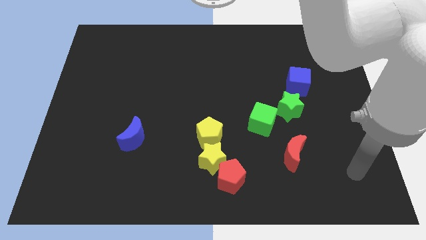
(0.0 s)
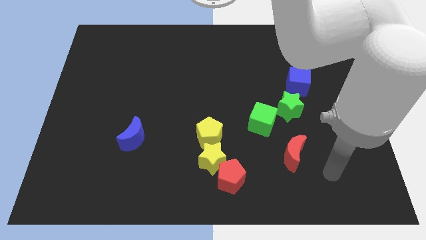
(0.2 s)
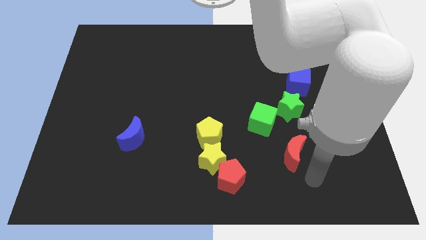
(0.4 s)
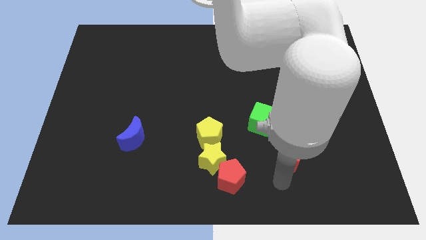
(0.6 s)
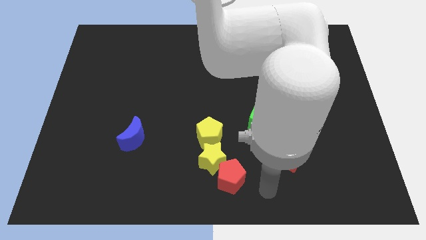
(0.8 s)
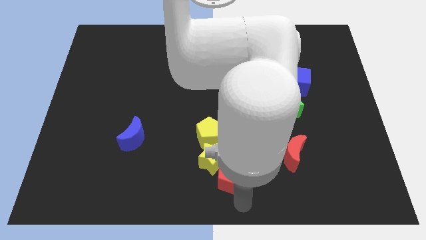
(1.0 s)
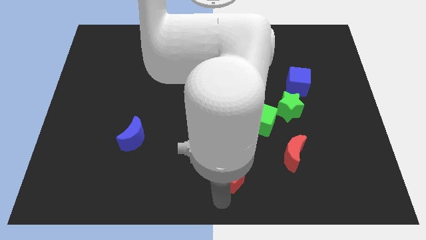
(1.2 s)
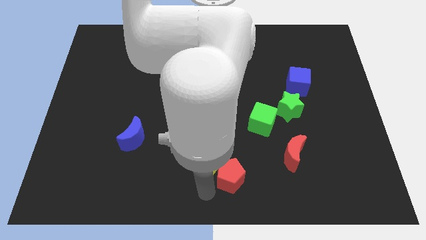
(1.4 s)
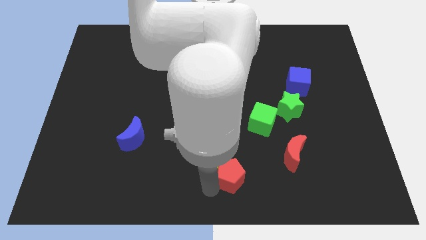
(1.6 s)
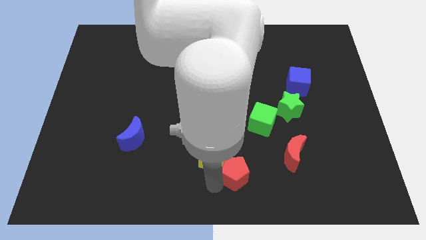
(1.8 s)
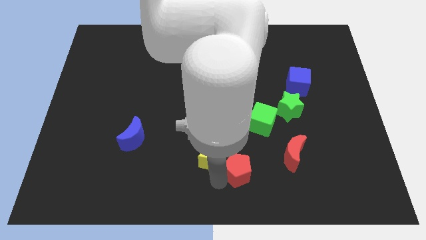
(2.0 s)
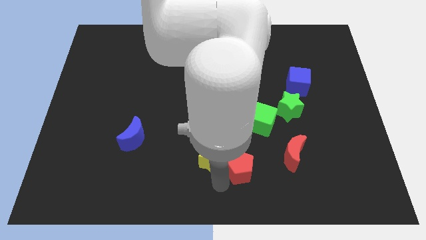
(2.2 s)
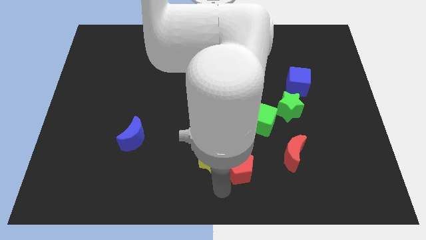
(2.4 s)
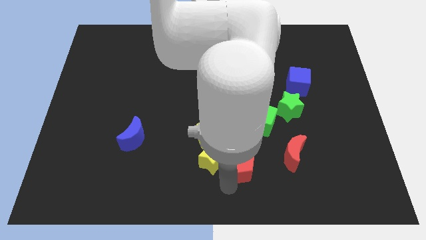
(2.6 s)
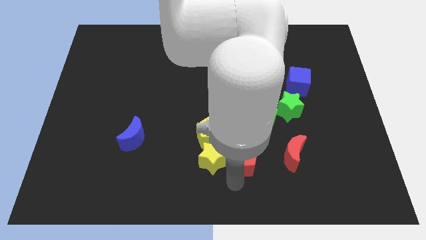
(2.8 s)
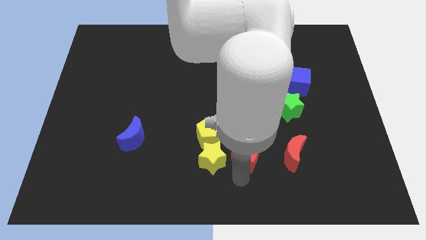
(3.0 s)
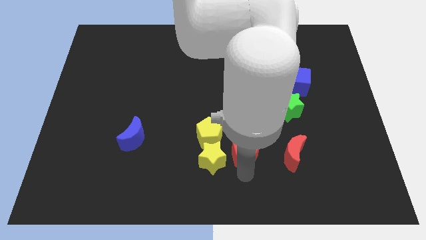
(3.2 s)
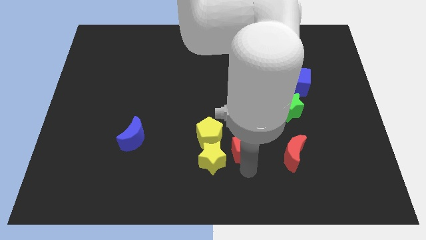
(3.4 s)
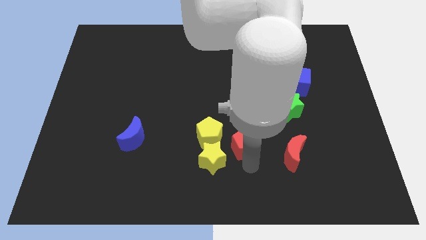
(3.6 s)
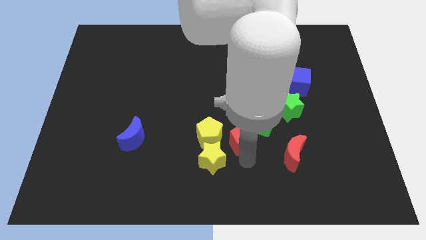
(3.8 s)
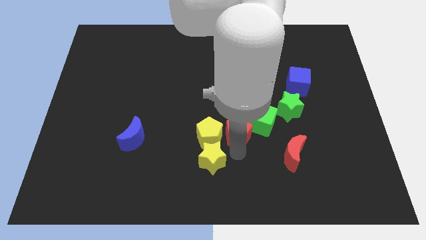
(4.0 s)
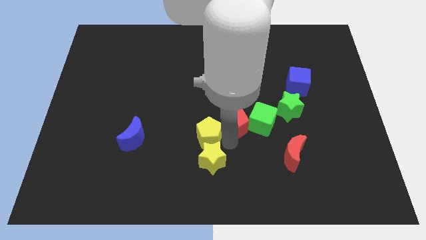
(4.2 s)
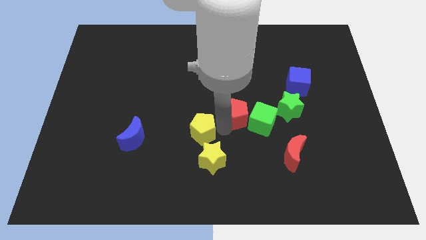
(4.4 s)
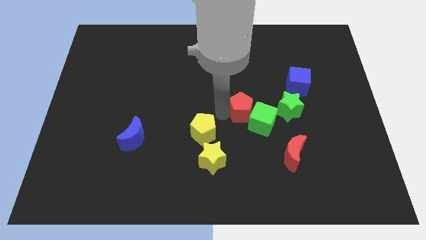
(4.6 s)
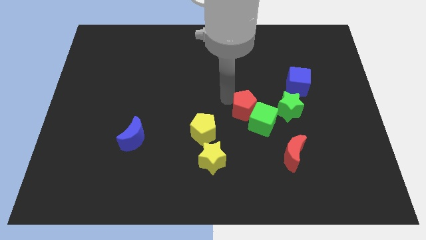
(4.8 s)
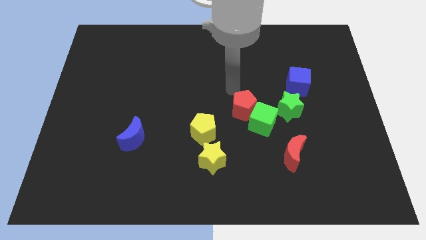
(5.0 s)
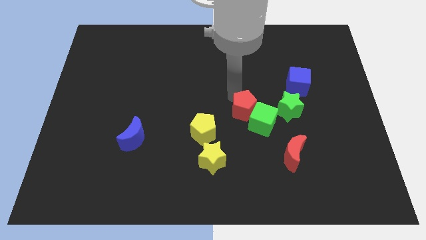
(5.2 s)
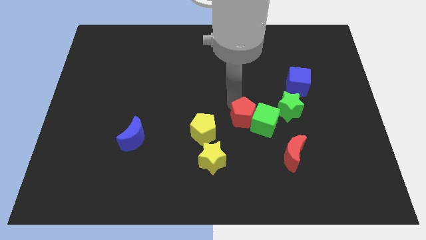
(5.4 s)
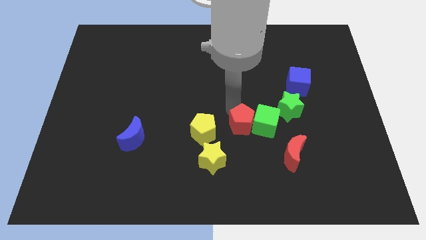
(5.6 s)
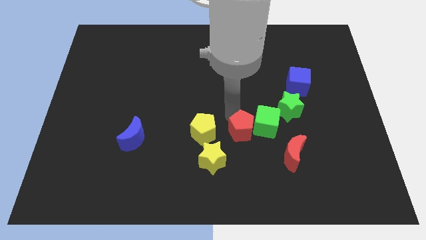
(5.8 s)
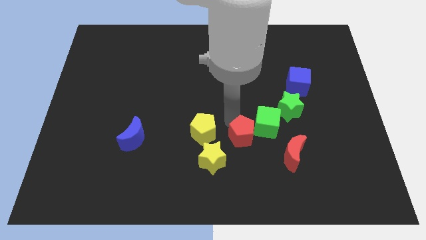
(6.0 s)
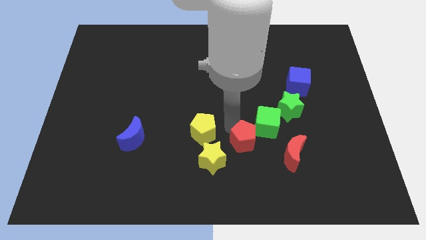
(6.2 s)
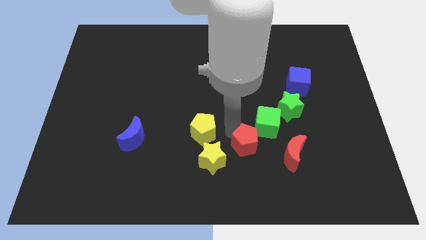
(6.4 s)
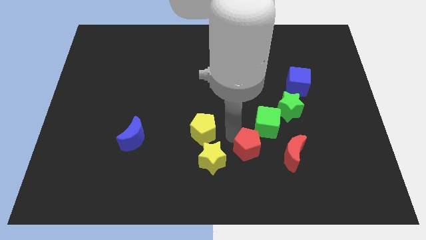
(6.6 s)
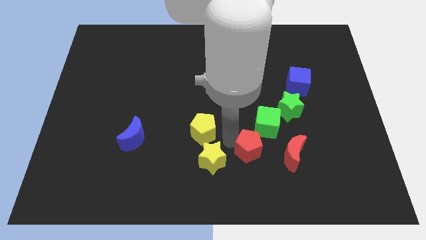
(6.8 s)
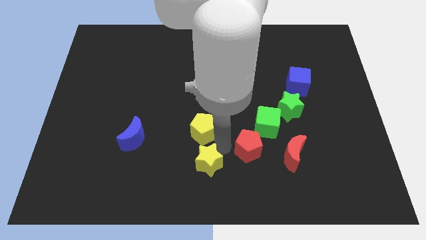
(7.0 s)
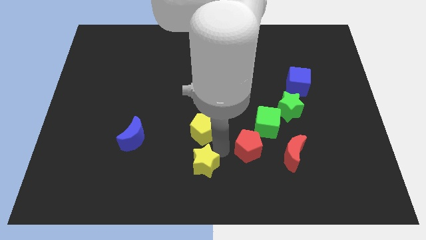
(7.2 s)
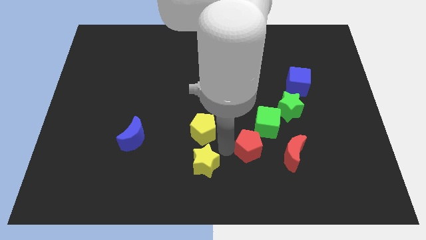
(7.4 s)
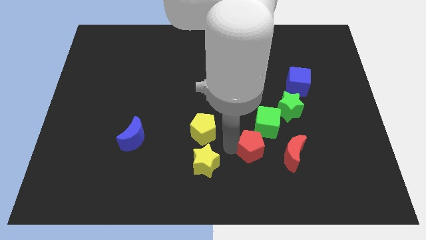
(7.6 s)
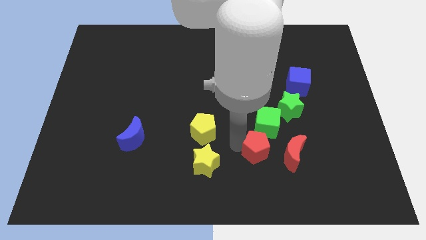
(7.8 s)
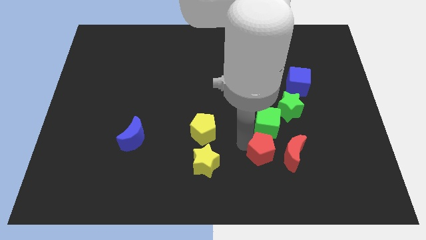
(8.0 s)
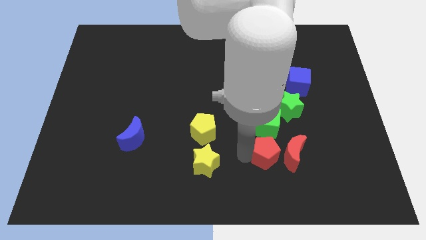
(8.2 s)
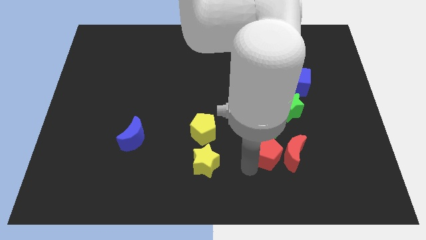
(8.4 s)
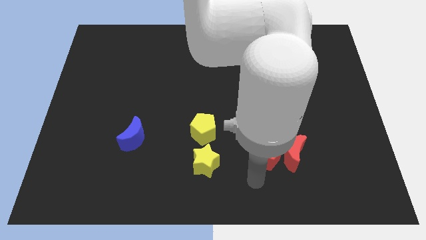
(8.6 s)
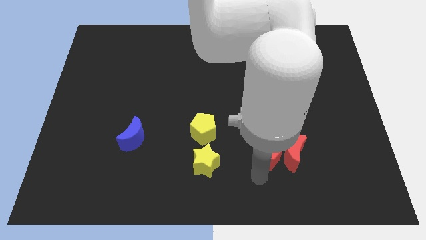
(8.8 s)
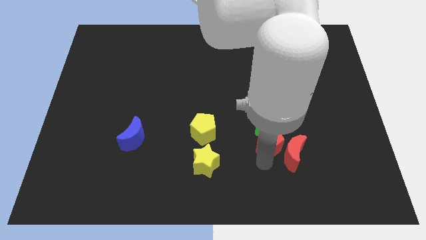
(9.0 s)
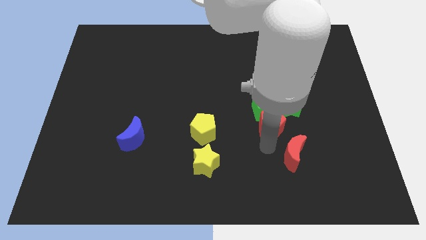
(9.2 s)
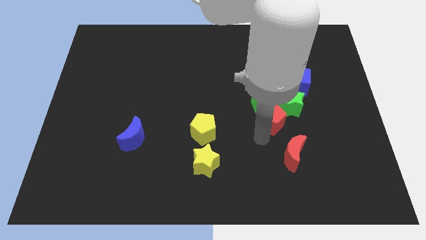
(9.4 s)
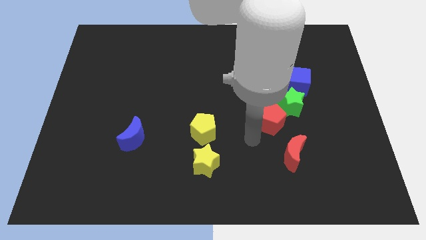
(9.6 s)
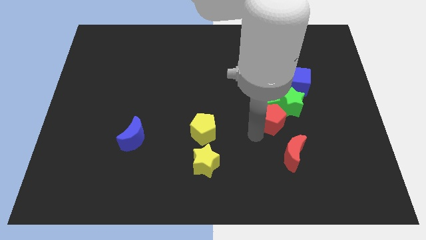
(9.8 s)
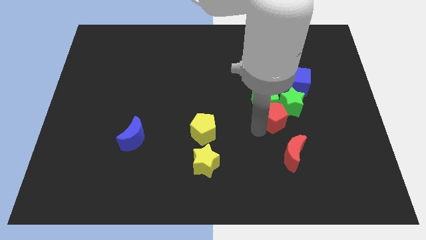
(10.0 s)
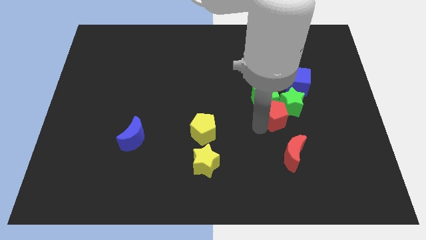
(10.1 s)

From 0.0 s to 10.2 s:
slide the red pentagon close to the green star

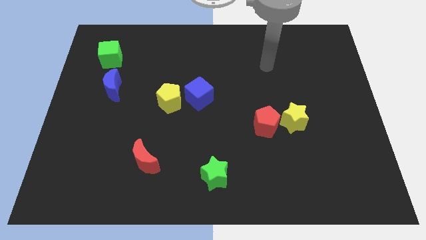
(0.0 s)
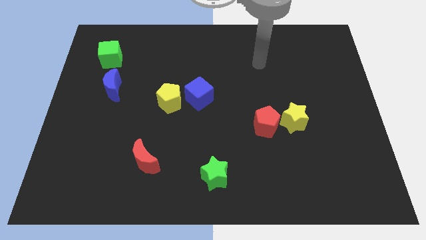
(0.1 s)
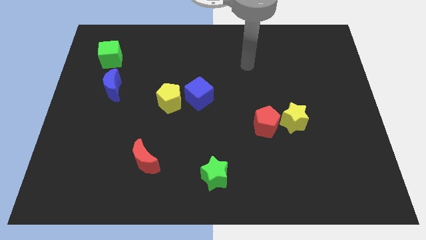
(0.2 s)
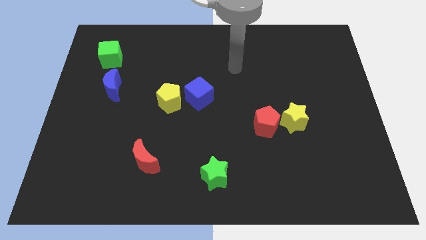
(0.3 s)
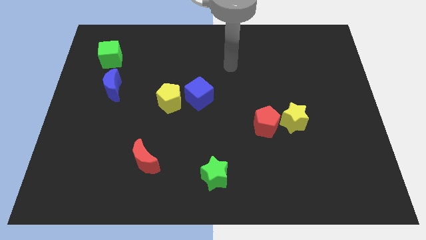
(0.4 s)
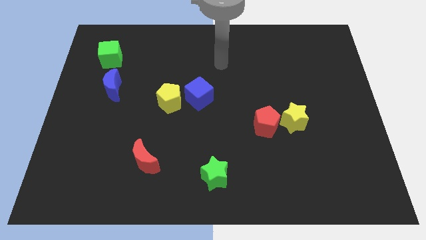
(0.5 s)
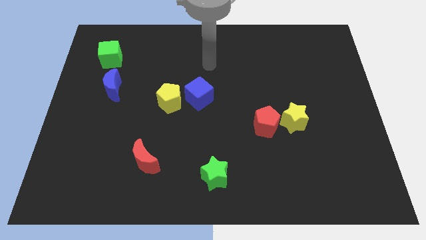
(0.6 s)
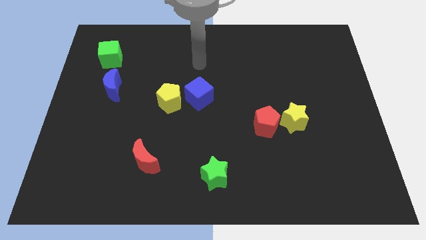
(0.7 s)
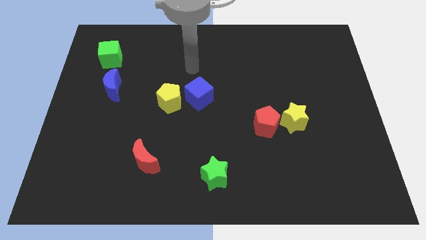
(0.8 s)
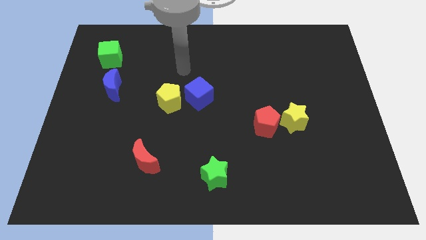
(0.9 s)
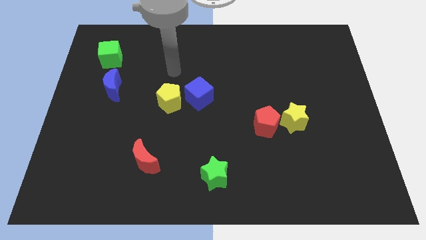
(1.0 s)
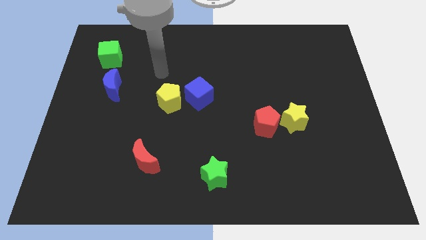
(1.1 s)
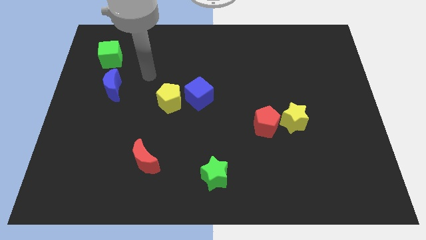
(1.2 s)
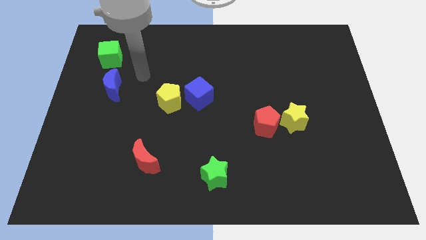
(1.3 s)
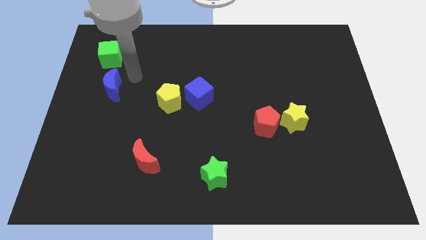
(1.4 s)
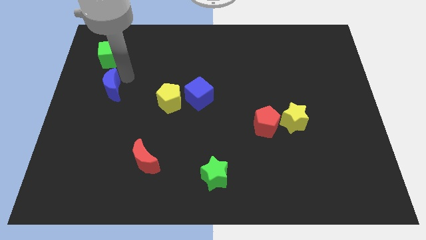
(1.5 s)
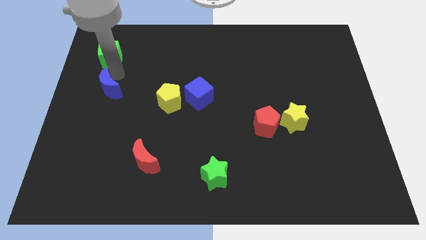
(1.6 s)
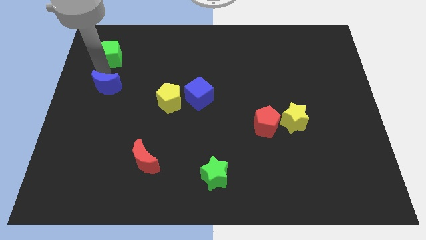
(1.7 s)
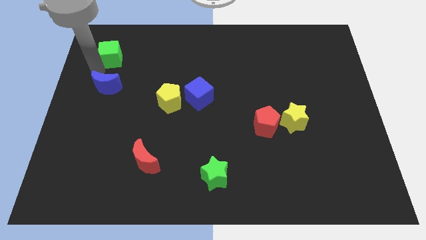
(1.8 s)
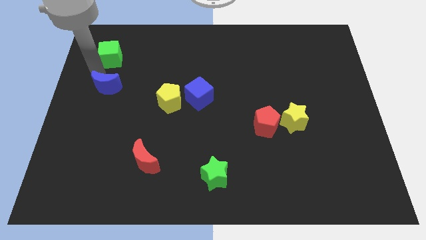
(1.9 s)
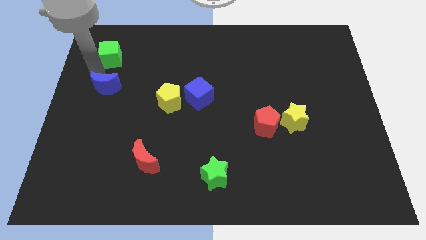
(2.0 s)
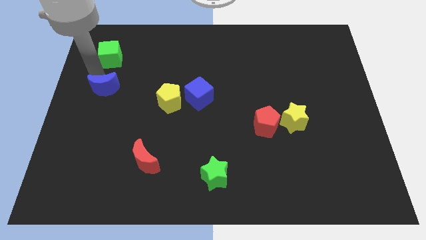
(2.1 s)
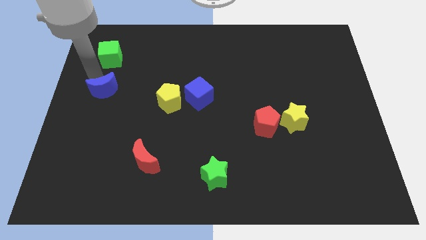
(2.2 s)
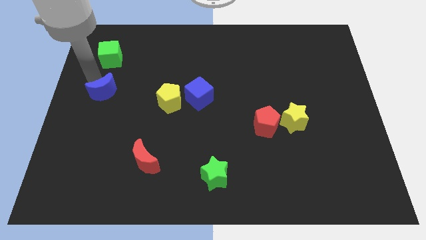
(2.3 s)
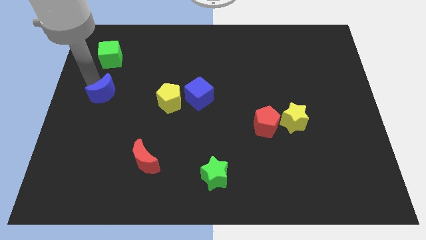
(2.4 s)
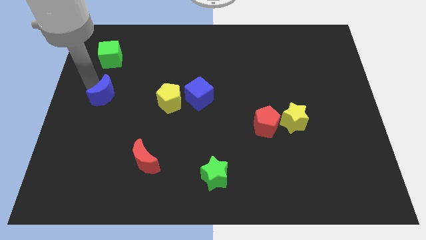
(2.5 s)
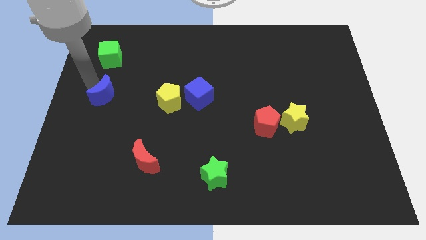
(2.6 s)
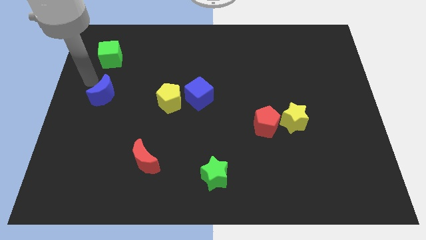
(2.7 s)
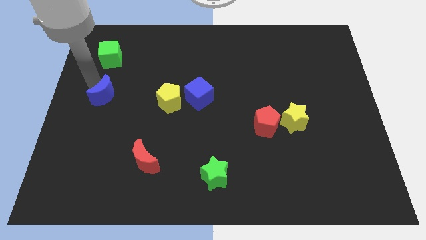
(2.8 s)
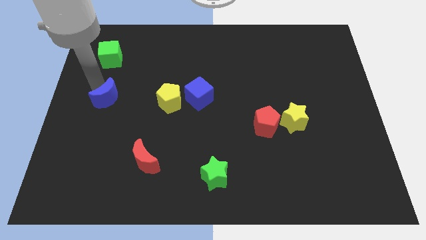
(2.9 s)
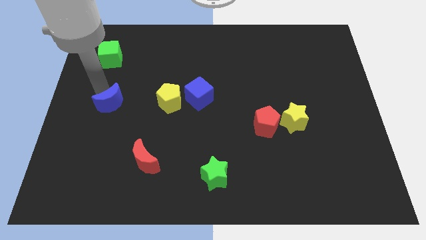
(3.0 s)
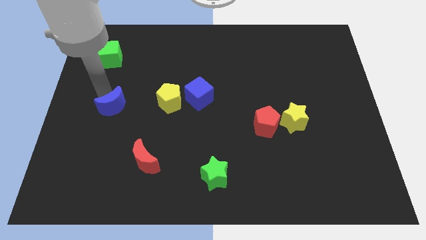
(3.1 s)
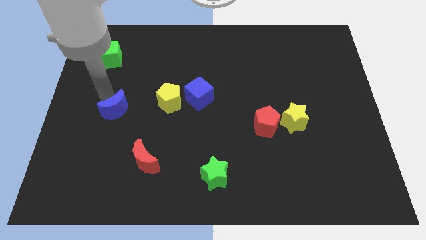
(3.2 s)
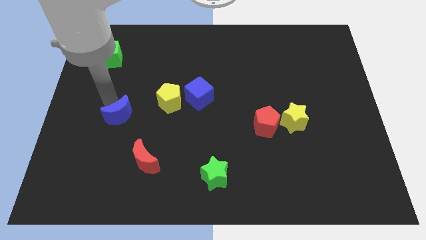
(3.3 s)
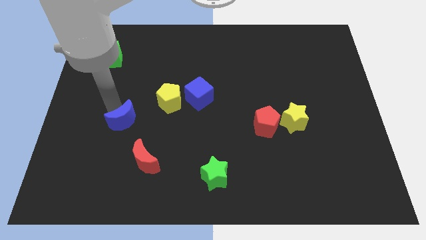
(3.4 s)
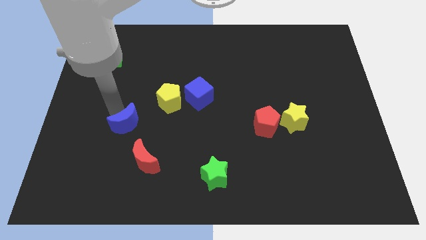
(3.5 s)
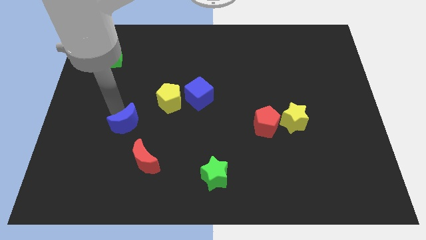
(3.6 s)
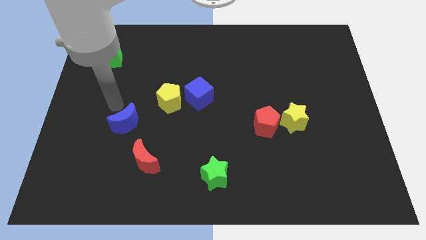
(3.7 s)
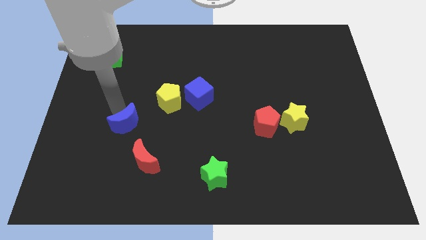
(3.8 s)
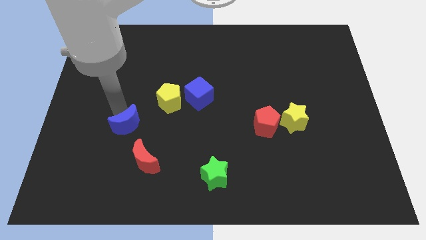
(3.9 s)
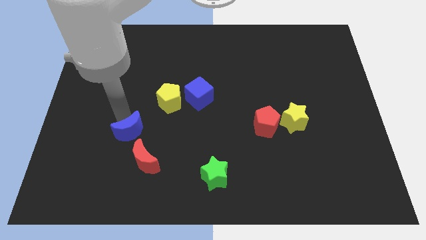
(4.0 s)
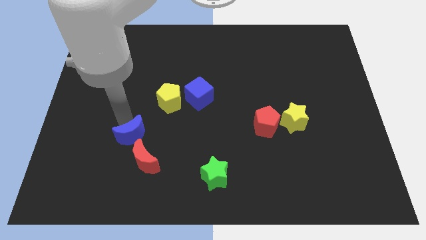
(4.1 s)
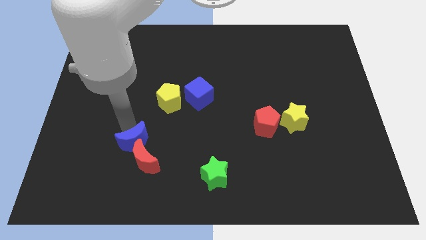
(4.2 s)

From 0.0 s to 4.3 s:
put the blue moon close to the red moon
